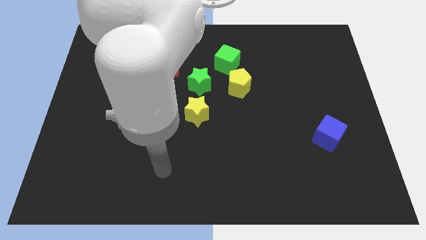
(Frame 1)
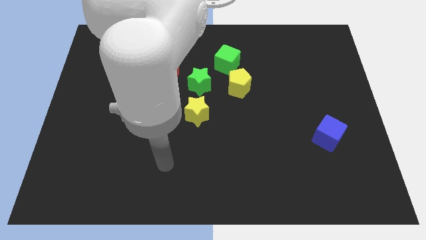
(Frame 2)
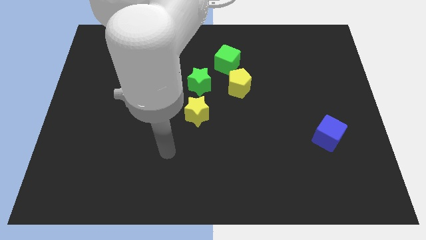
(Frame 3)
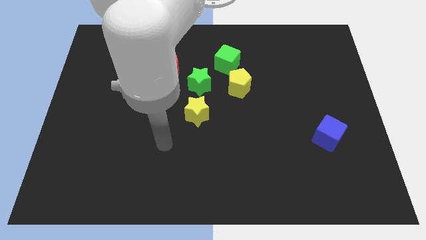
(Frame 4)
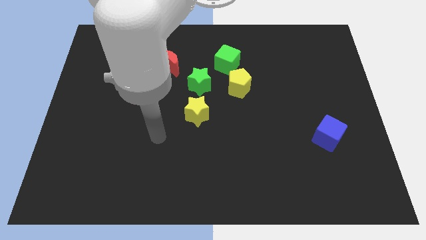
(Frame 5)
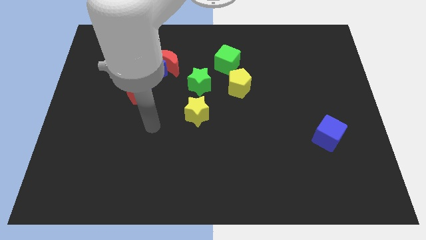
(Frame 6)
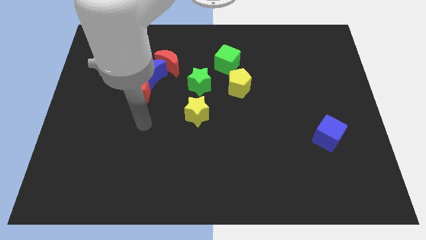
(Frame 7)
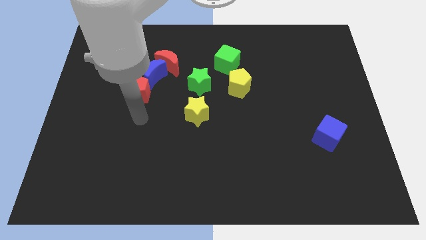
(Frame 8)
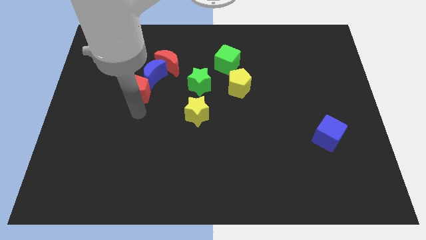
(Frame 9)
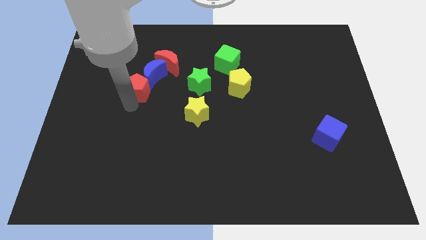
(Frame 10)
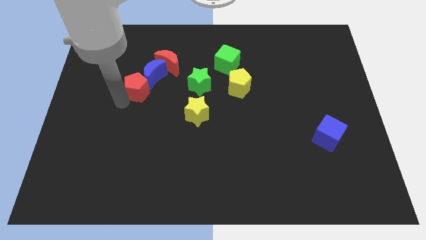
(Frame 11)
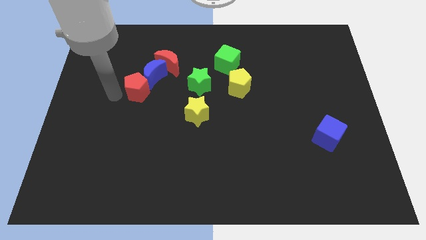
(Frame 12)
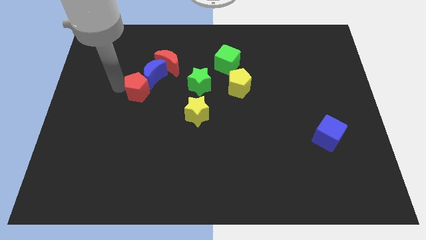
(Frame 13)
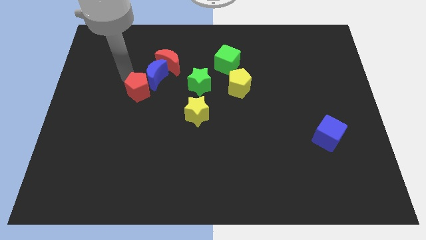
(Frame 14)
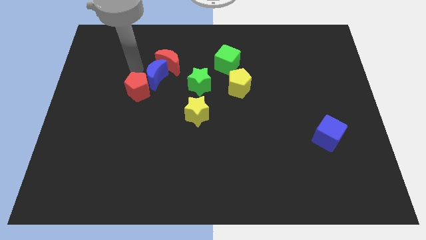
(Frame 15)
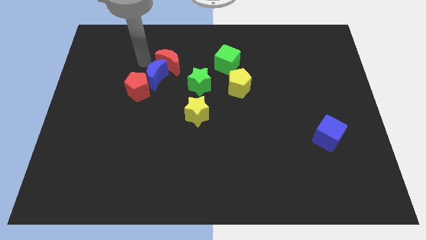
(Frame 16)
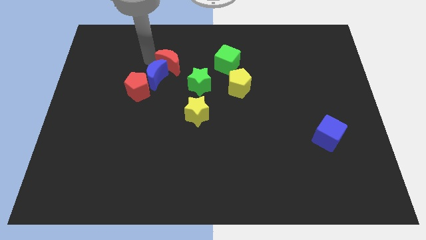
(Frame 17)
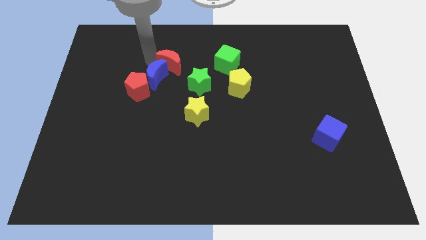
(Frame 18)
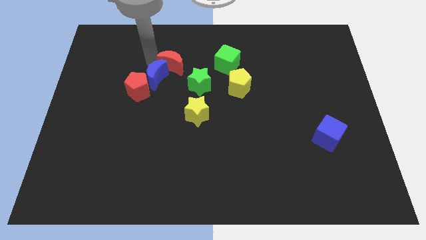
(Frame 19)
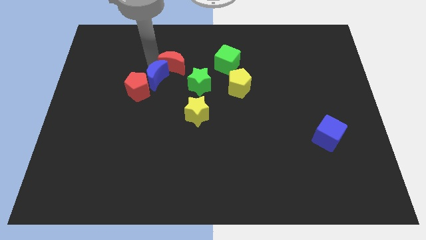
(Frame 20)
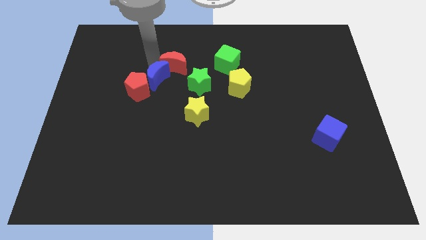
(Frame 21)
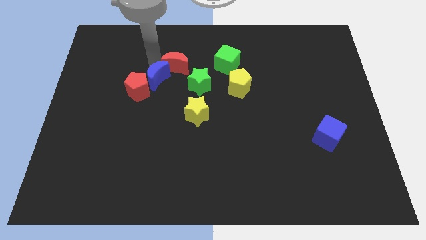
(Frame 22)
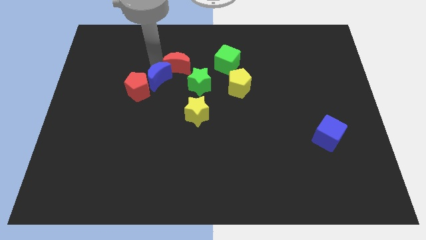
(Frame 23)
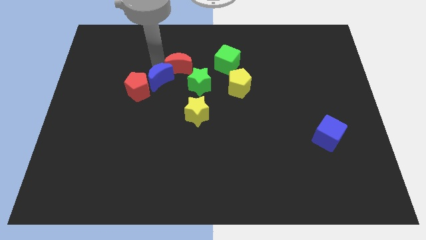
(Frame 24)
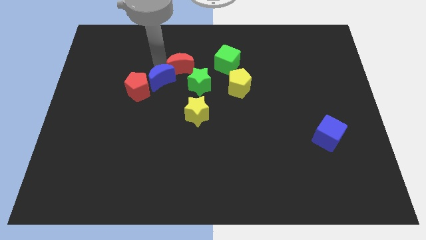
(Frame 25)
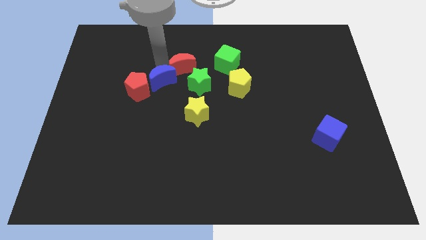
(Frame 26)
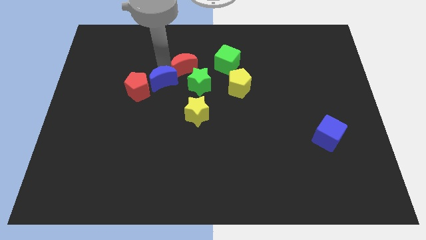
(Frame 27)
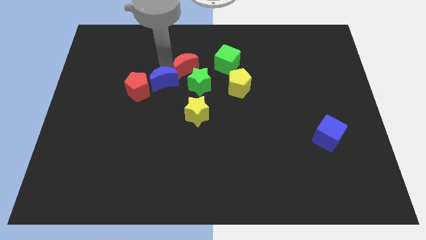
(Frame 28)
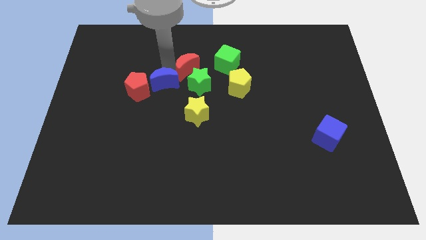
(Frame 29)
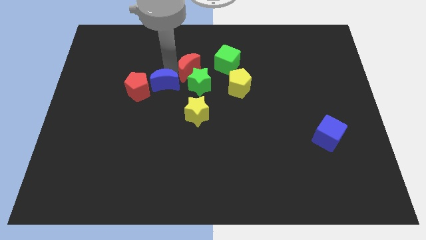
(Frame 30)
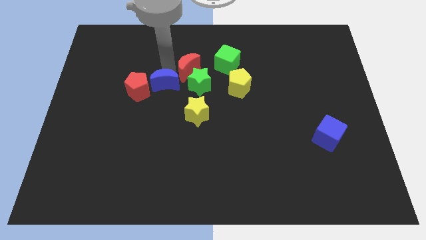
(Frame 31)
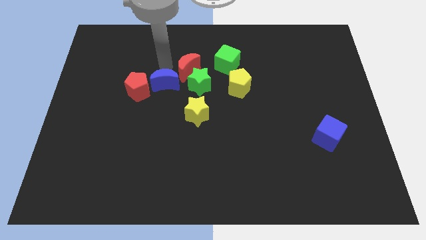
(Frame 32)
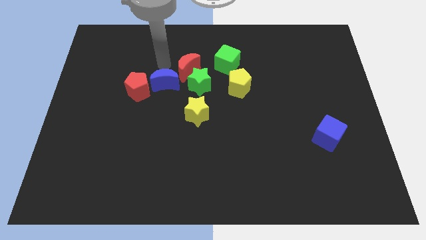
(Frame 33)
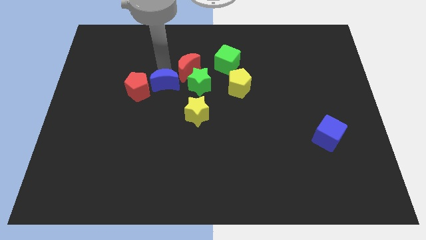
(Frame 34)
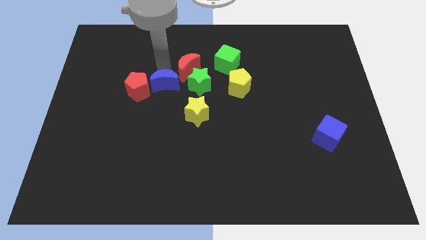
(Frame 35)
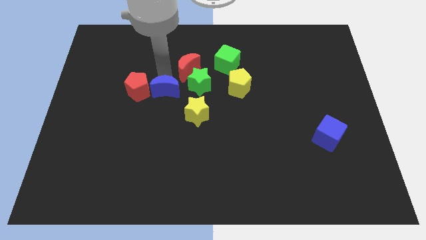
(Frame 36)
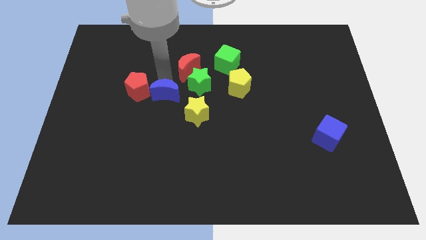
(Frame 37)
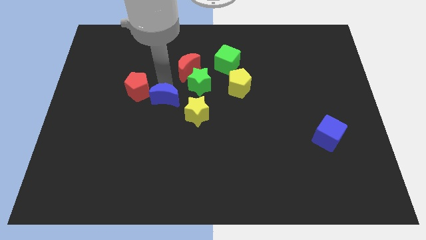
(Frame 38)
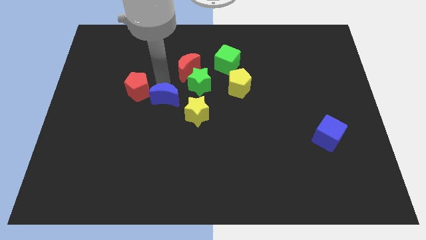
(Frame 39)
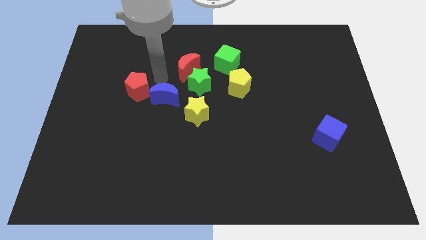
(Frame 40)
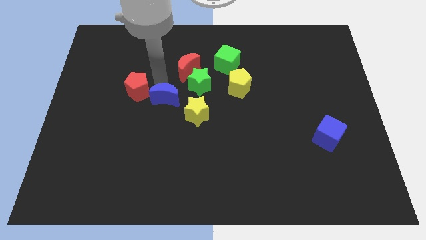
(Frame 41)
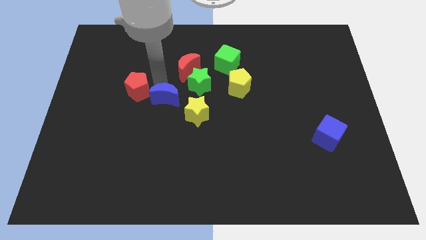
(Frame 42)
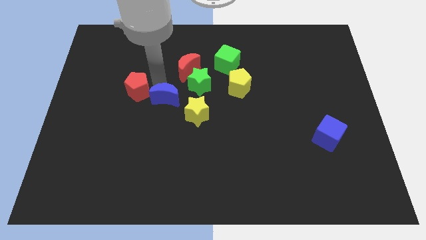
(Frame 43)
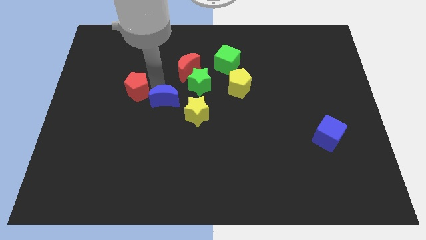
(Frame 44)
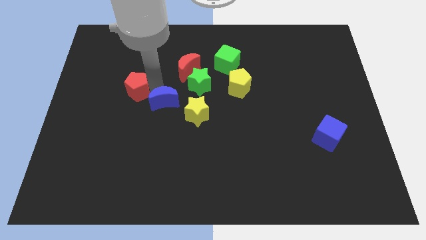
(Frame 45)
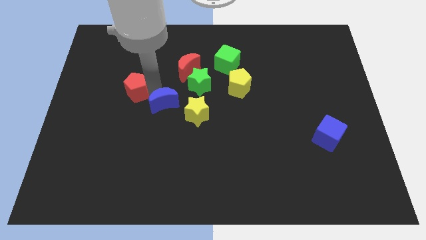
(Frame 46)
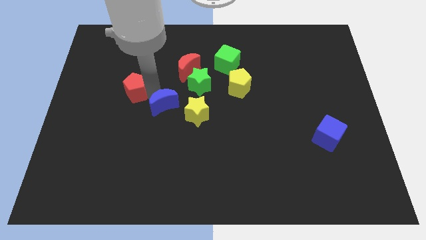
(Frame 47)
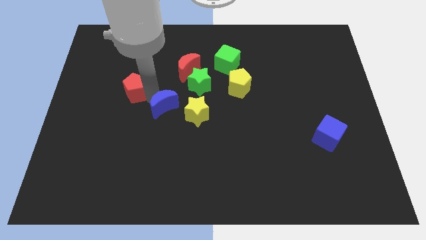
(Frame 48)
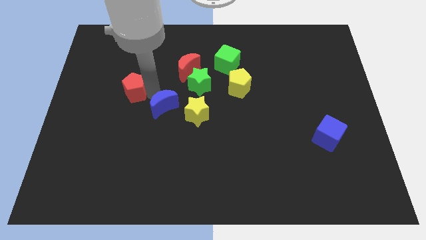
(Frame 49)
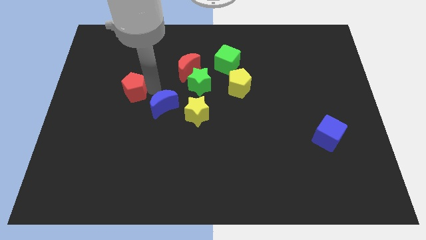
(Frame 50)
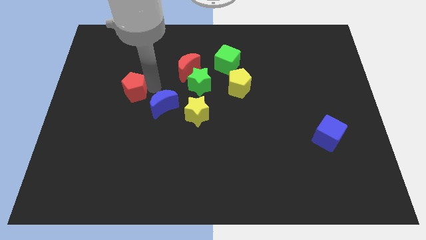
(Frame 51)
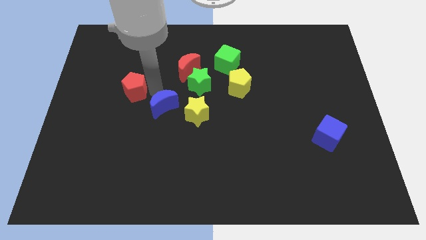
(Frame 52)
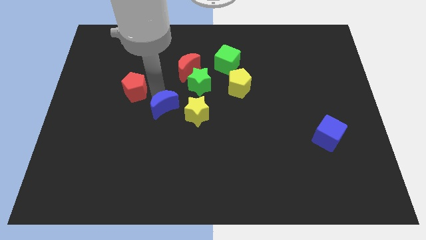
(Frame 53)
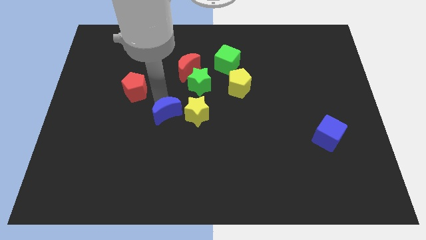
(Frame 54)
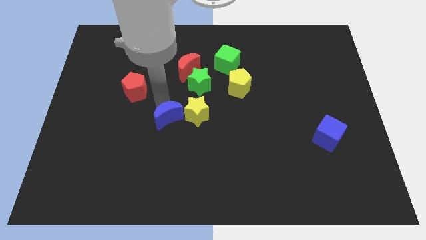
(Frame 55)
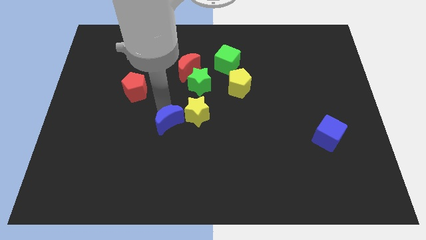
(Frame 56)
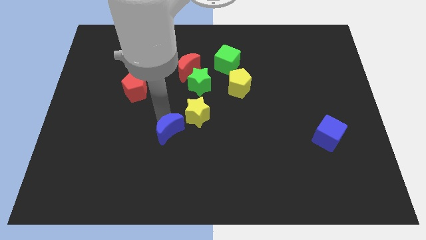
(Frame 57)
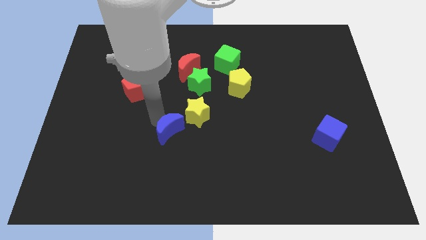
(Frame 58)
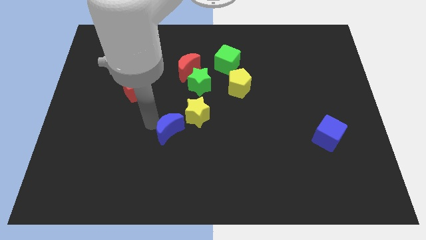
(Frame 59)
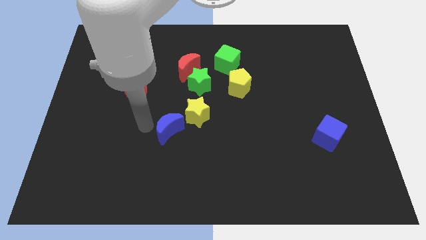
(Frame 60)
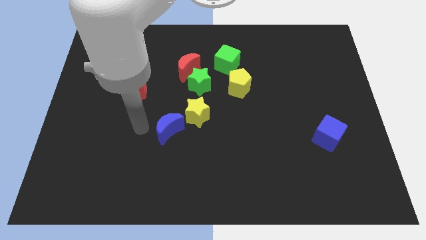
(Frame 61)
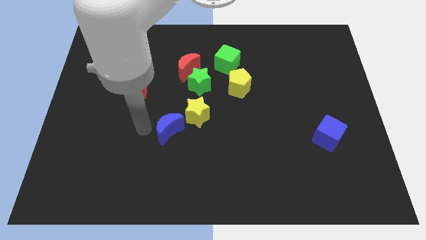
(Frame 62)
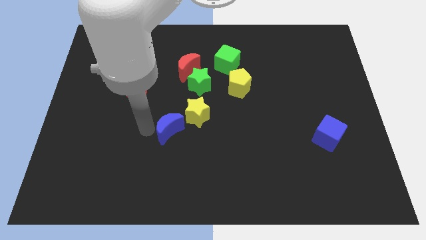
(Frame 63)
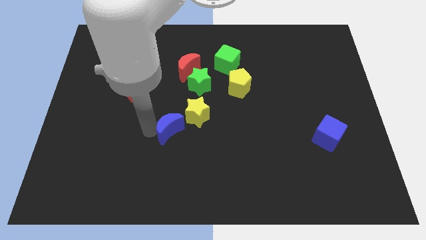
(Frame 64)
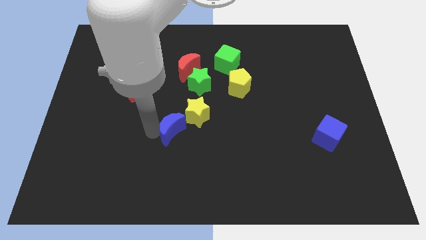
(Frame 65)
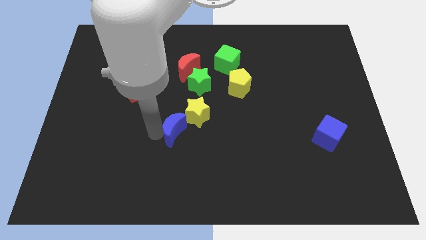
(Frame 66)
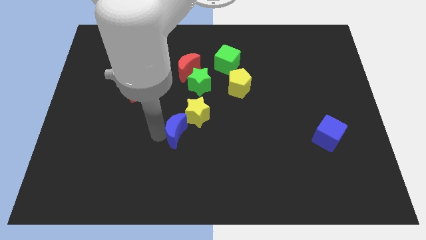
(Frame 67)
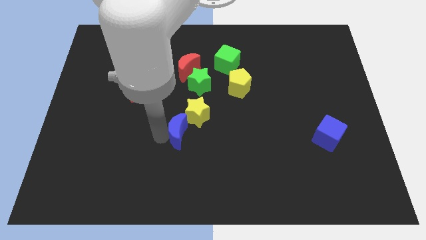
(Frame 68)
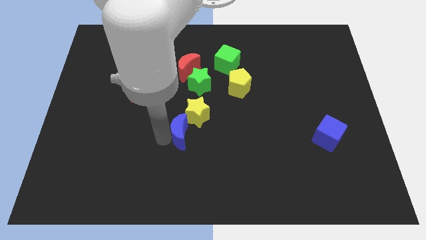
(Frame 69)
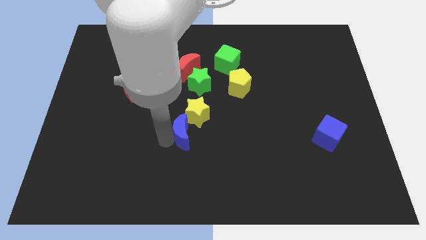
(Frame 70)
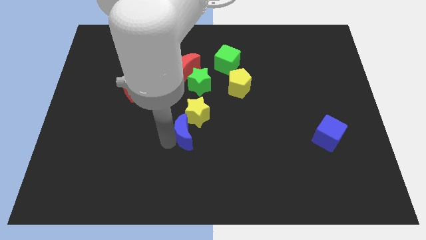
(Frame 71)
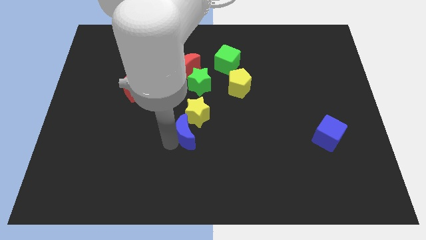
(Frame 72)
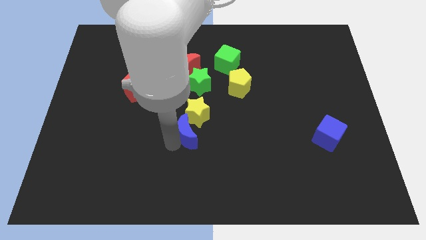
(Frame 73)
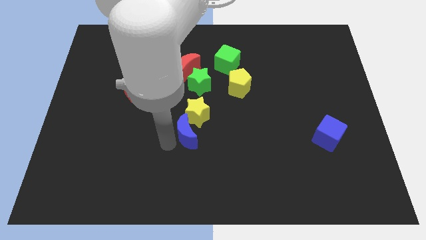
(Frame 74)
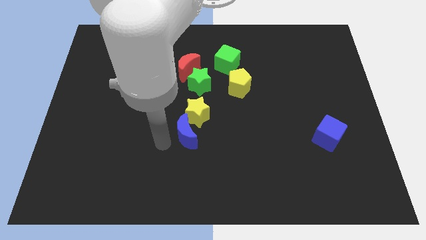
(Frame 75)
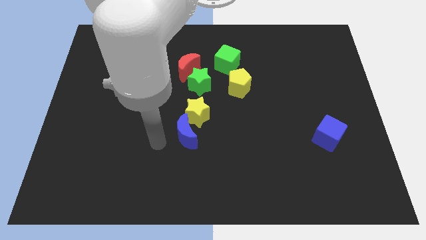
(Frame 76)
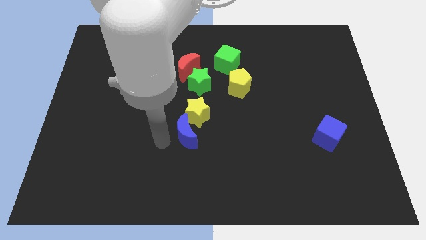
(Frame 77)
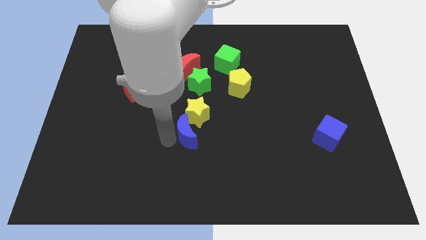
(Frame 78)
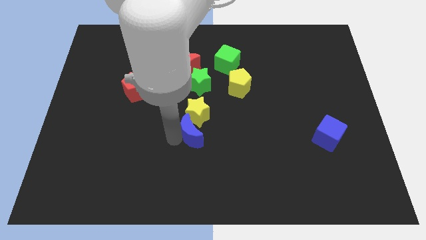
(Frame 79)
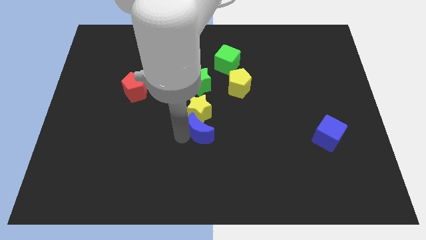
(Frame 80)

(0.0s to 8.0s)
push the blue moon to the bottom right of the yellow star
